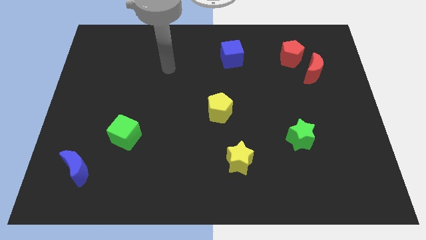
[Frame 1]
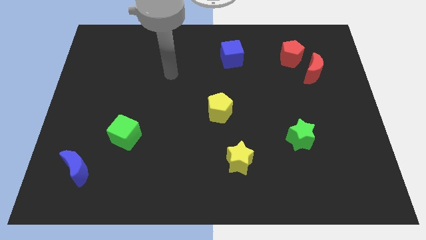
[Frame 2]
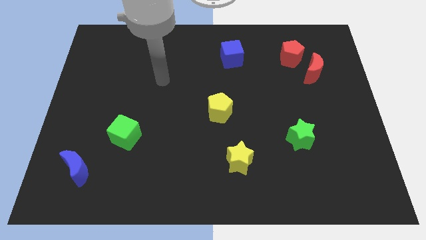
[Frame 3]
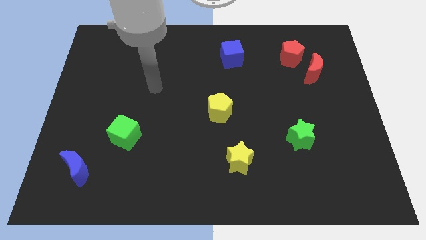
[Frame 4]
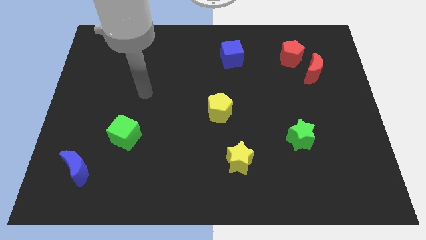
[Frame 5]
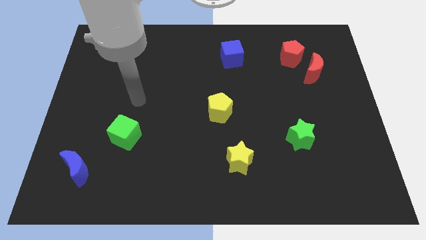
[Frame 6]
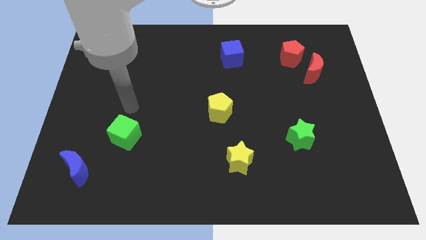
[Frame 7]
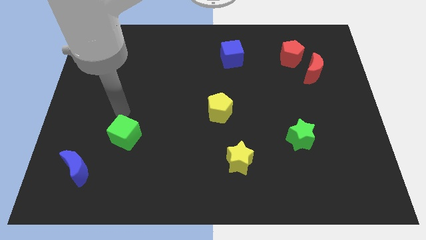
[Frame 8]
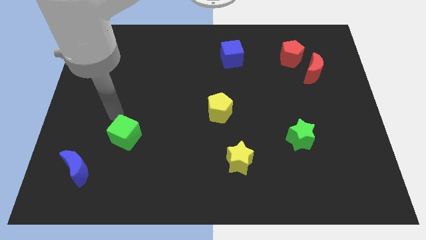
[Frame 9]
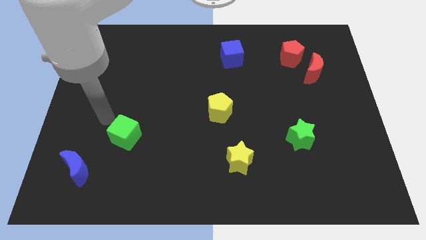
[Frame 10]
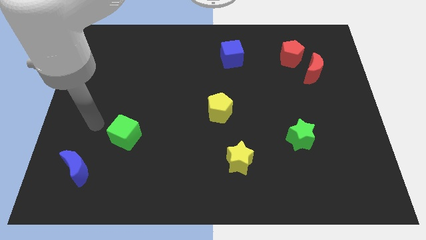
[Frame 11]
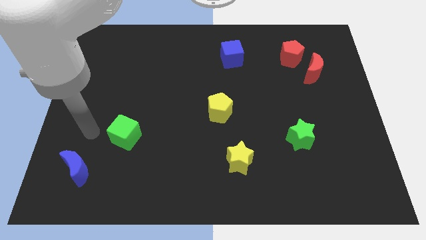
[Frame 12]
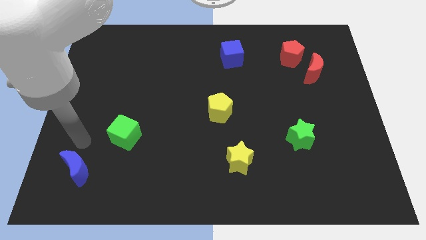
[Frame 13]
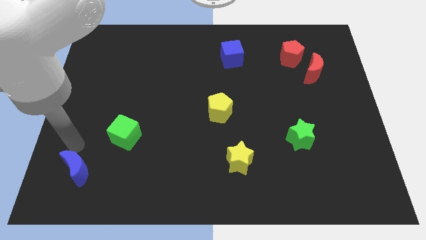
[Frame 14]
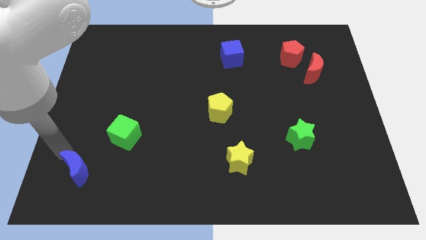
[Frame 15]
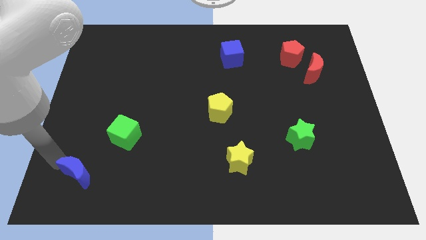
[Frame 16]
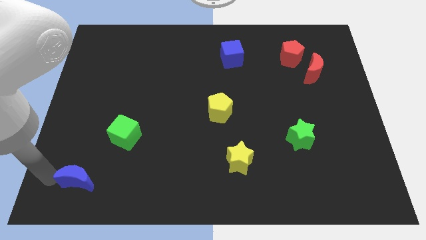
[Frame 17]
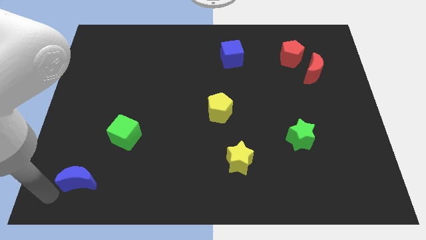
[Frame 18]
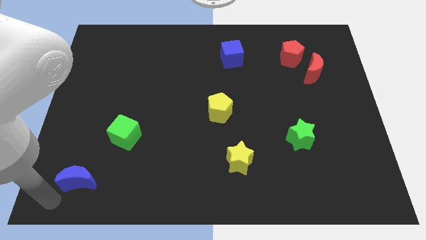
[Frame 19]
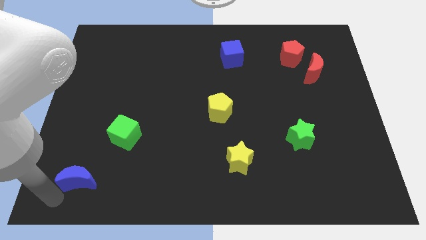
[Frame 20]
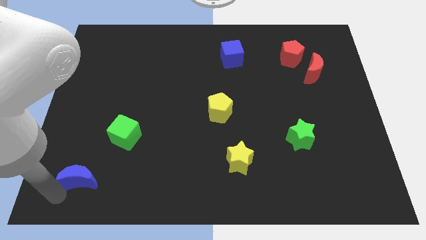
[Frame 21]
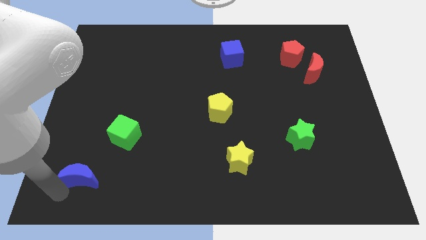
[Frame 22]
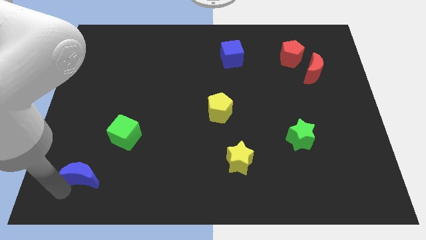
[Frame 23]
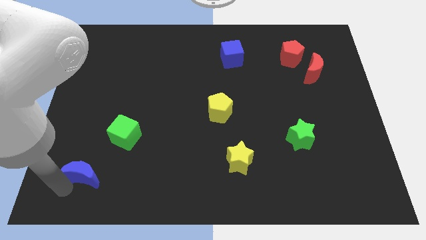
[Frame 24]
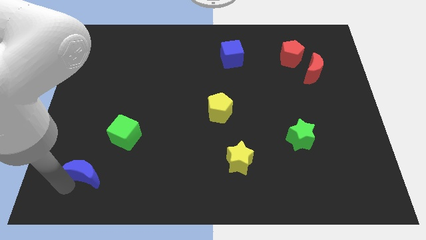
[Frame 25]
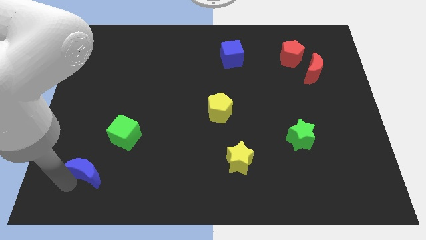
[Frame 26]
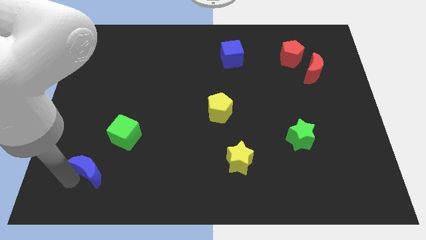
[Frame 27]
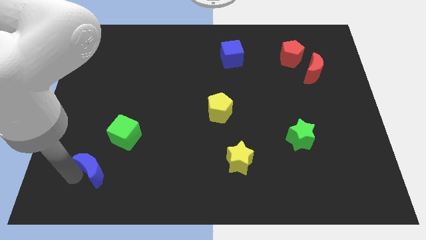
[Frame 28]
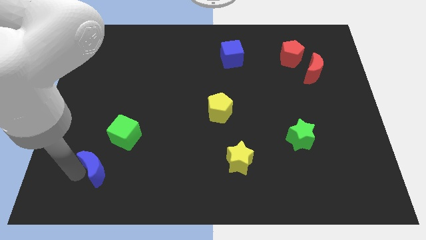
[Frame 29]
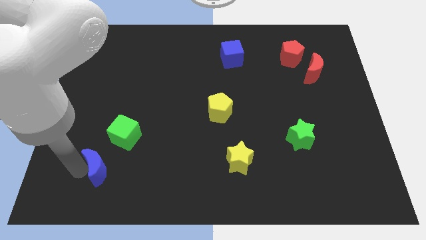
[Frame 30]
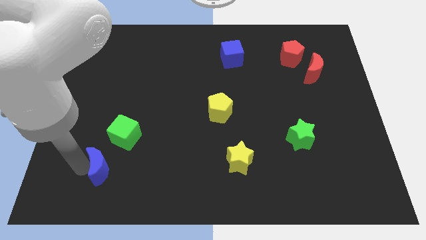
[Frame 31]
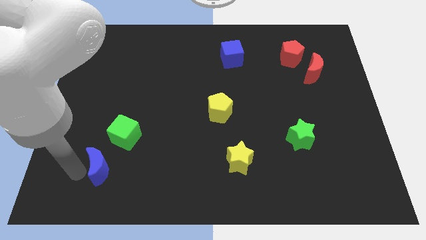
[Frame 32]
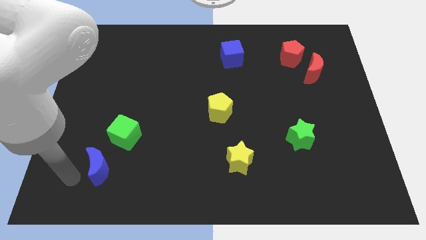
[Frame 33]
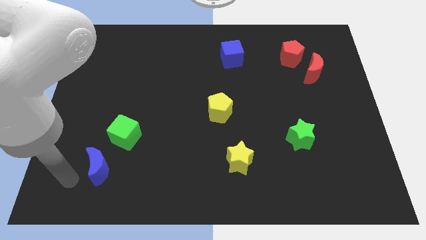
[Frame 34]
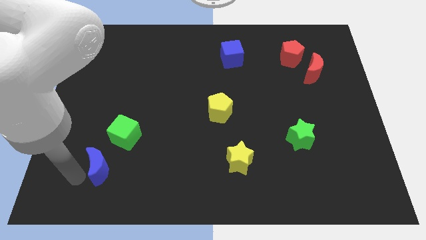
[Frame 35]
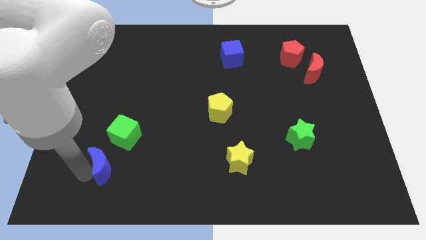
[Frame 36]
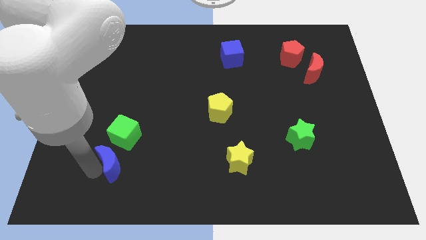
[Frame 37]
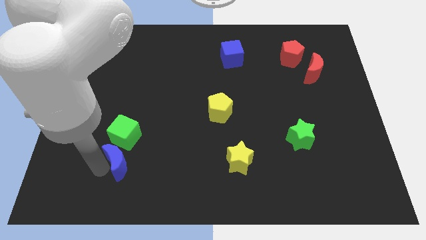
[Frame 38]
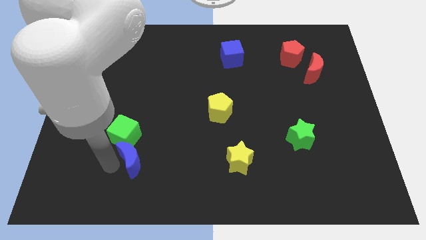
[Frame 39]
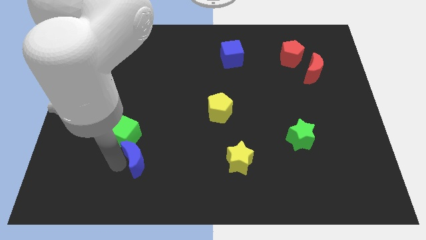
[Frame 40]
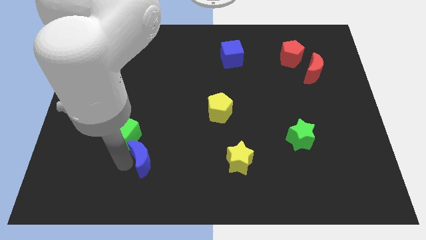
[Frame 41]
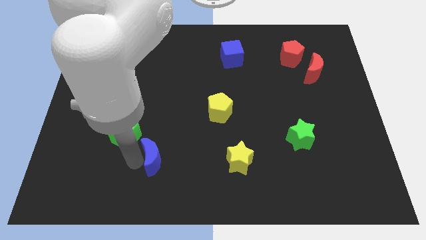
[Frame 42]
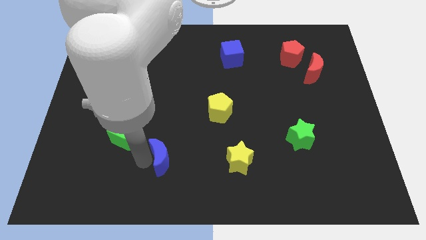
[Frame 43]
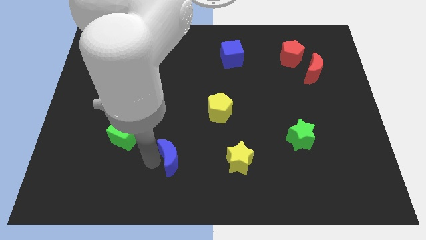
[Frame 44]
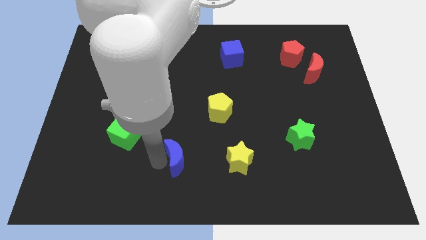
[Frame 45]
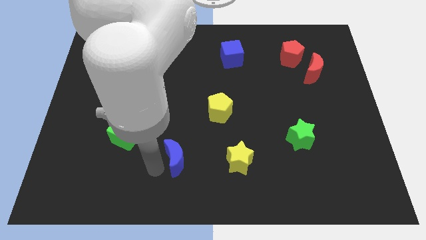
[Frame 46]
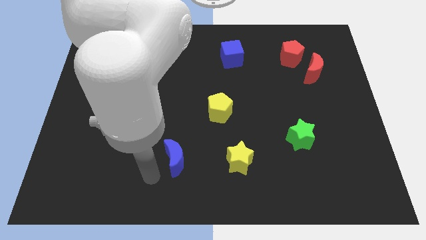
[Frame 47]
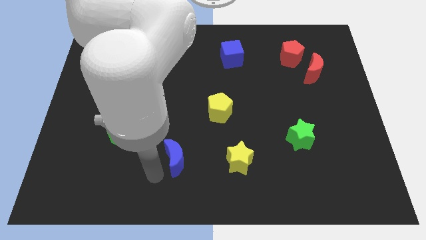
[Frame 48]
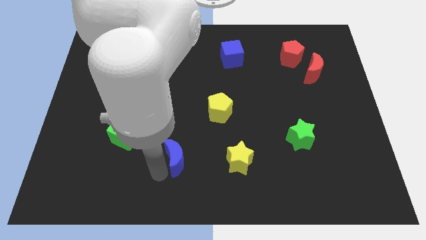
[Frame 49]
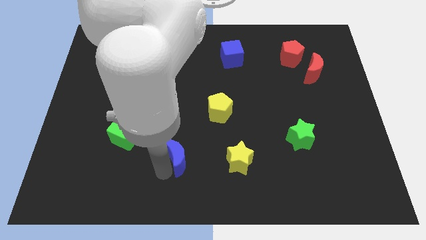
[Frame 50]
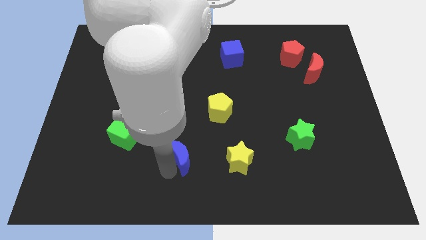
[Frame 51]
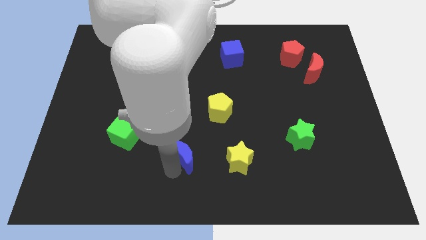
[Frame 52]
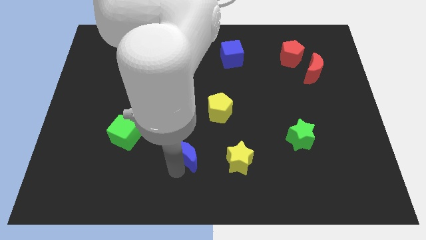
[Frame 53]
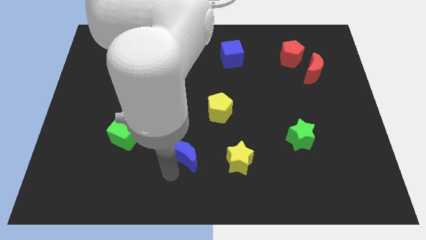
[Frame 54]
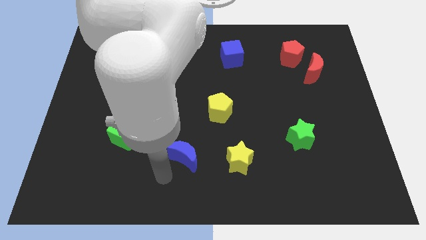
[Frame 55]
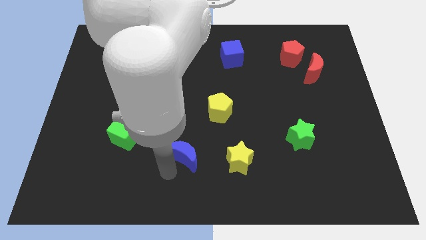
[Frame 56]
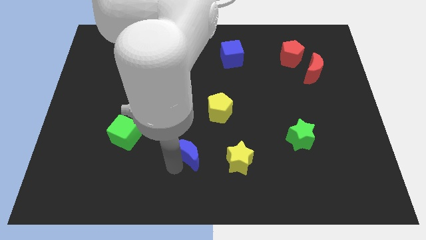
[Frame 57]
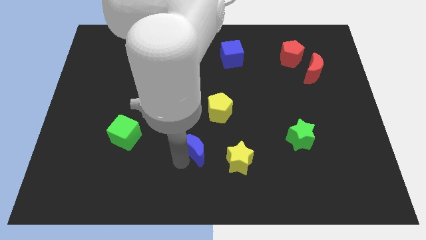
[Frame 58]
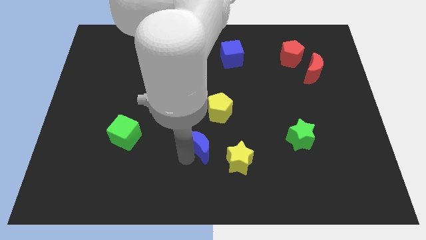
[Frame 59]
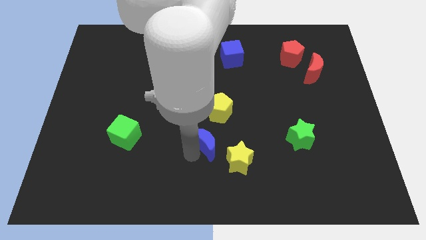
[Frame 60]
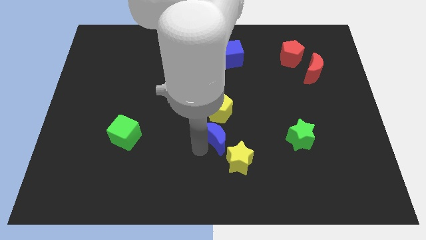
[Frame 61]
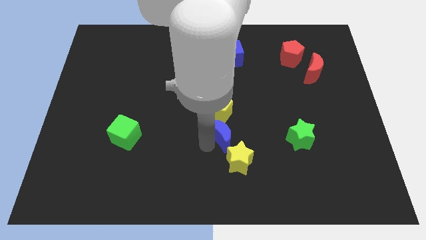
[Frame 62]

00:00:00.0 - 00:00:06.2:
move the blue moon to the top side of the yellow star

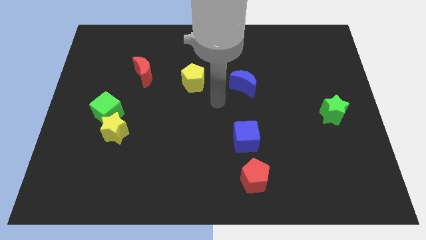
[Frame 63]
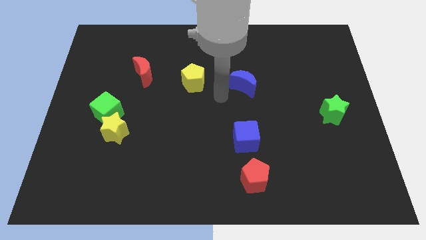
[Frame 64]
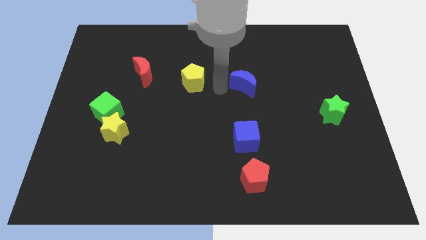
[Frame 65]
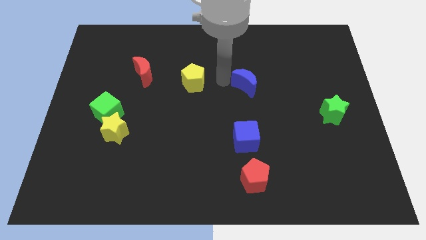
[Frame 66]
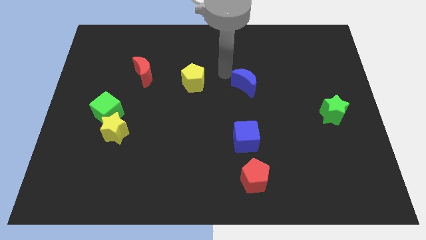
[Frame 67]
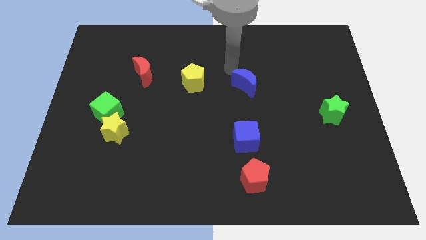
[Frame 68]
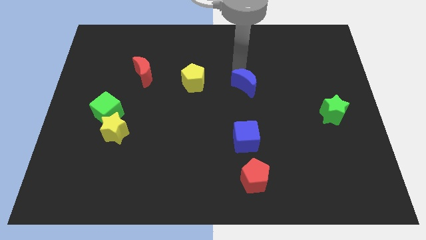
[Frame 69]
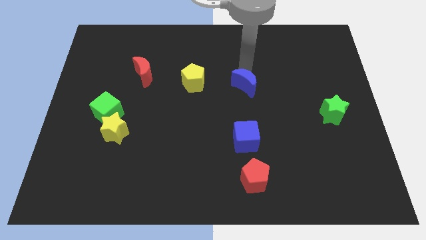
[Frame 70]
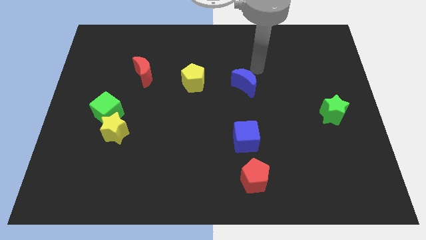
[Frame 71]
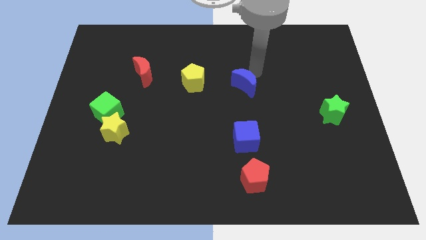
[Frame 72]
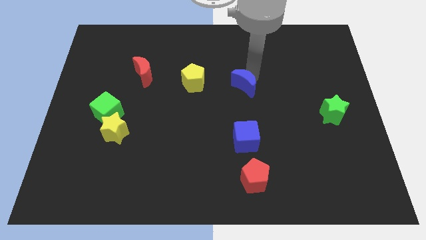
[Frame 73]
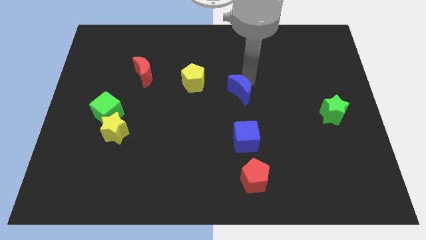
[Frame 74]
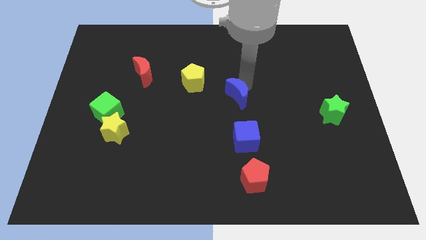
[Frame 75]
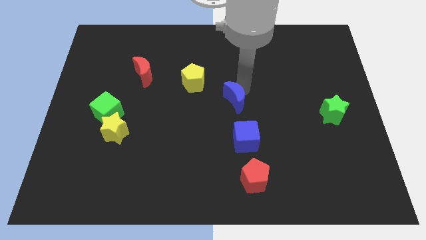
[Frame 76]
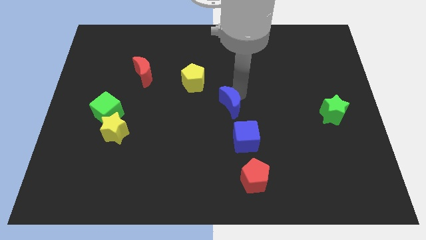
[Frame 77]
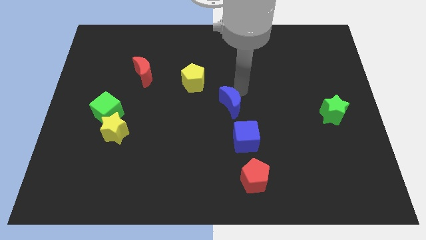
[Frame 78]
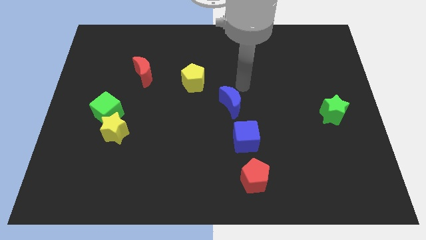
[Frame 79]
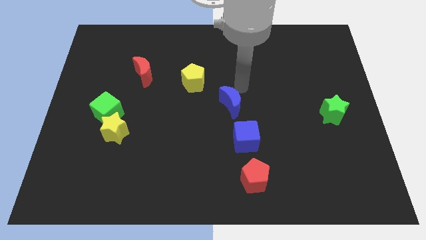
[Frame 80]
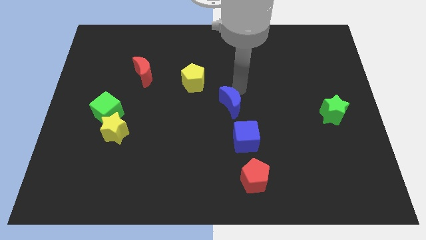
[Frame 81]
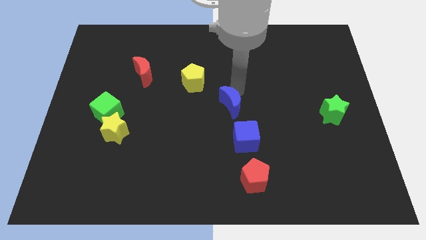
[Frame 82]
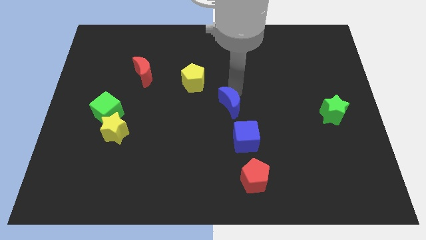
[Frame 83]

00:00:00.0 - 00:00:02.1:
slide the blue moon to the top left of the blue cube
